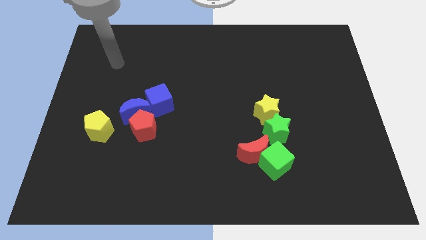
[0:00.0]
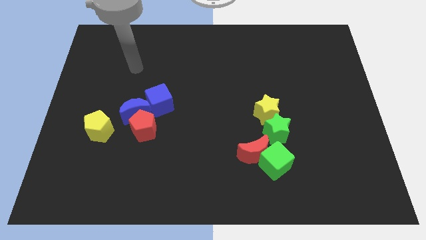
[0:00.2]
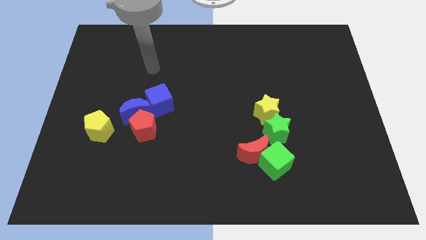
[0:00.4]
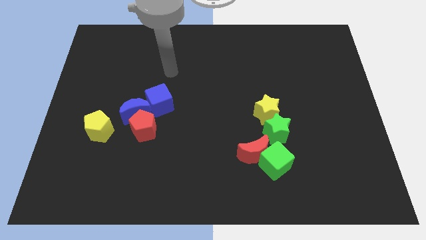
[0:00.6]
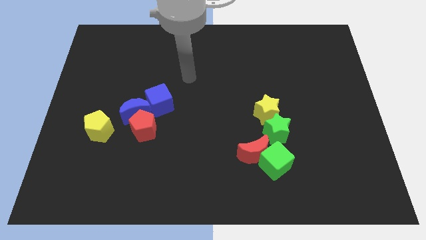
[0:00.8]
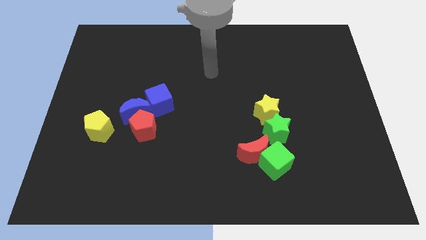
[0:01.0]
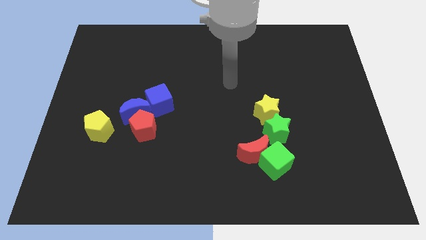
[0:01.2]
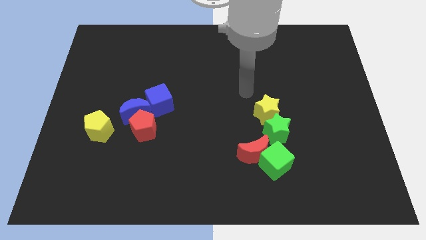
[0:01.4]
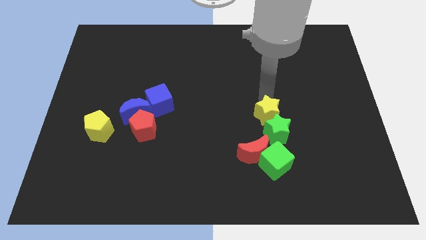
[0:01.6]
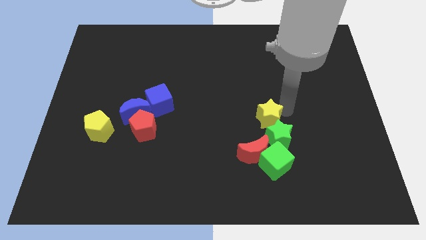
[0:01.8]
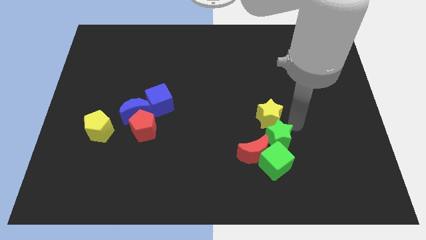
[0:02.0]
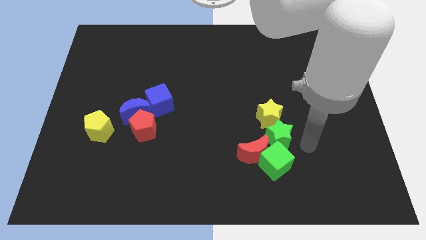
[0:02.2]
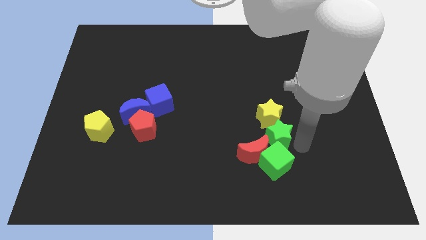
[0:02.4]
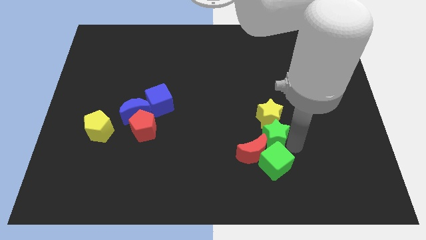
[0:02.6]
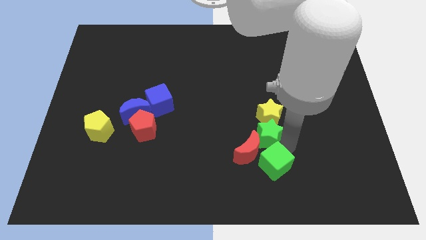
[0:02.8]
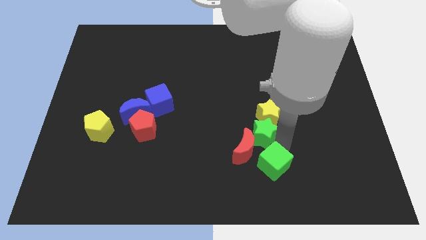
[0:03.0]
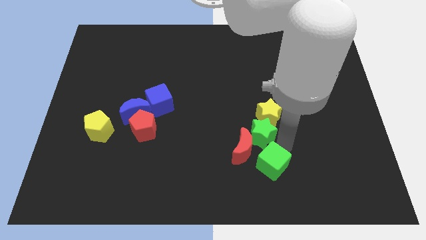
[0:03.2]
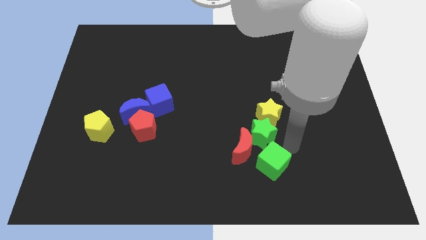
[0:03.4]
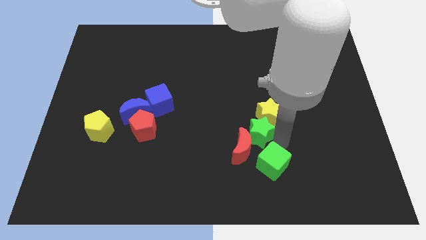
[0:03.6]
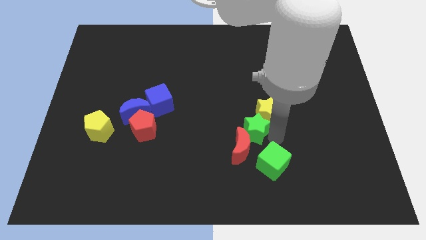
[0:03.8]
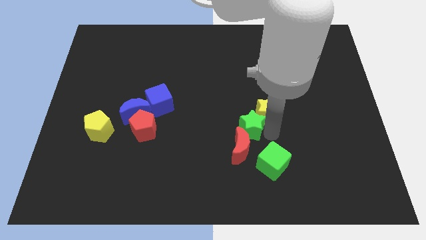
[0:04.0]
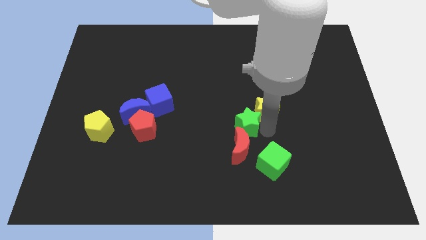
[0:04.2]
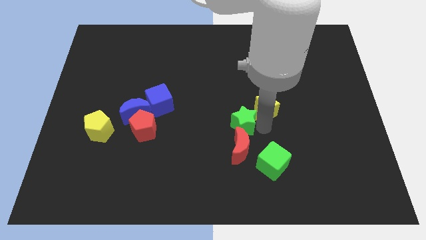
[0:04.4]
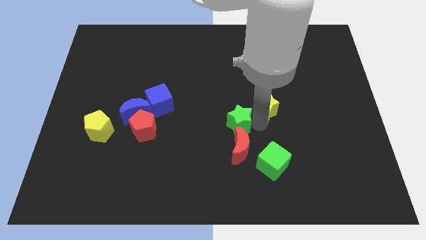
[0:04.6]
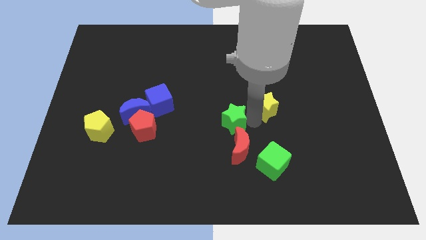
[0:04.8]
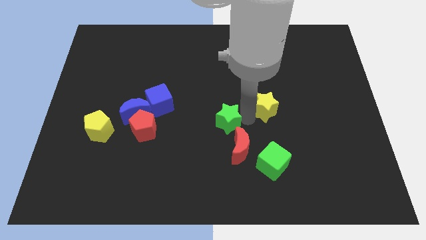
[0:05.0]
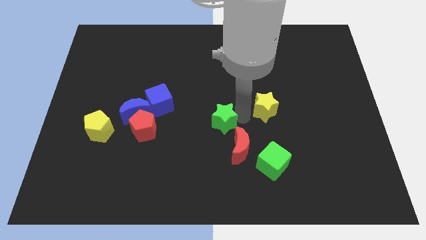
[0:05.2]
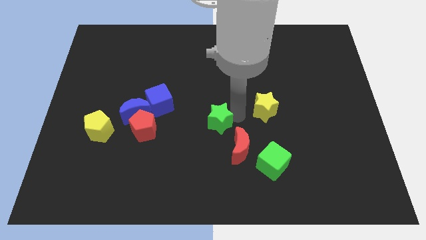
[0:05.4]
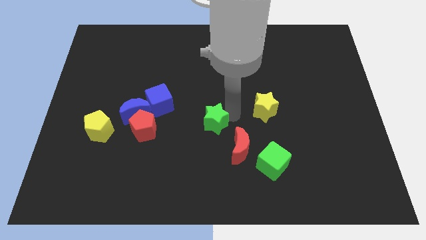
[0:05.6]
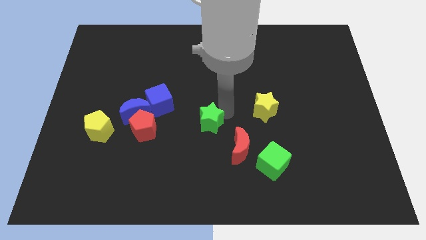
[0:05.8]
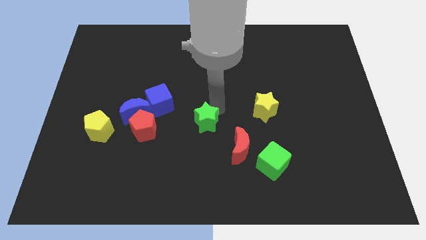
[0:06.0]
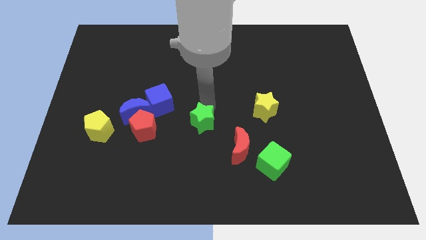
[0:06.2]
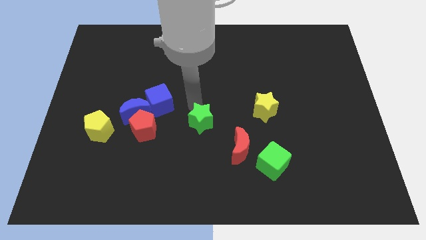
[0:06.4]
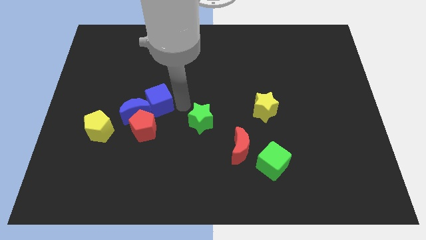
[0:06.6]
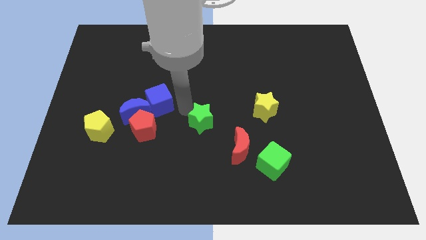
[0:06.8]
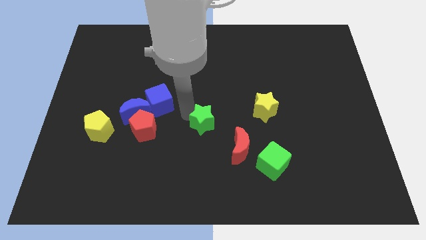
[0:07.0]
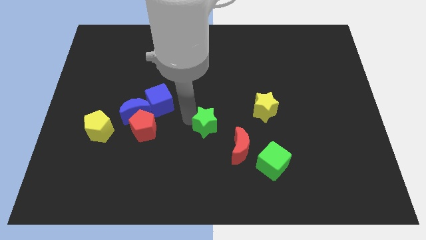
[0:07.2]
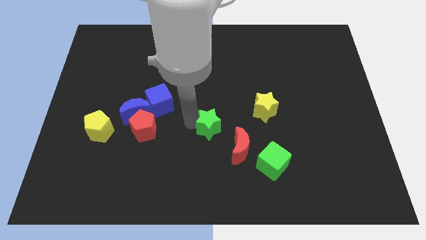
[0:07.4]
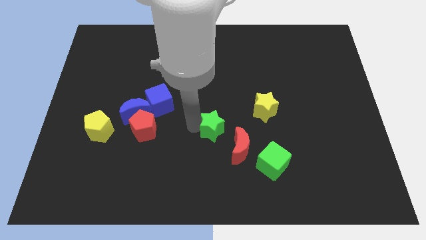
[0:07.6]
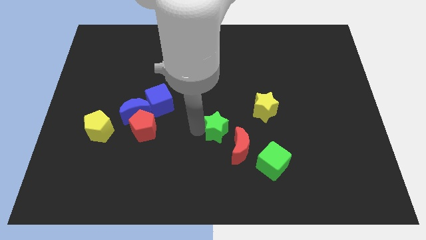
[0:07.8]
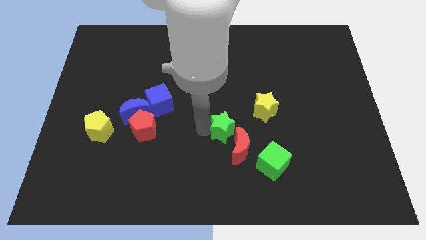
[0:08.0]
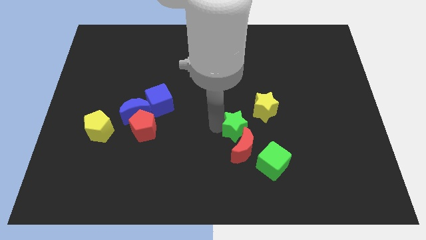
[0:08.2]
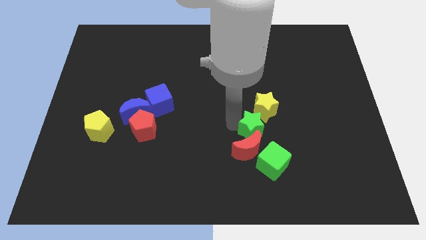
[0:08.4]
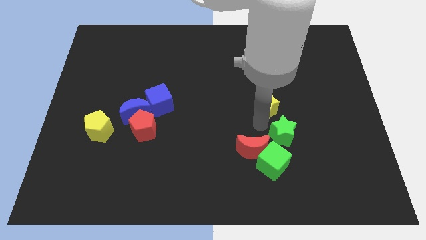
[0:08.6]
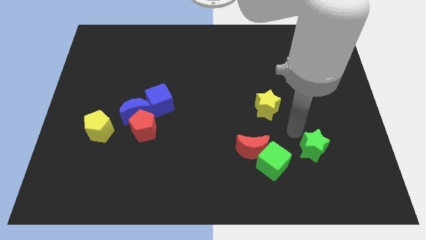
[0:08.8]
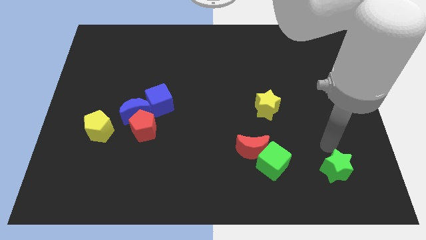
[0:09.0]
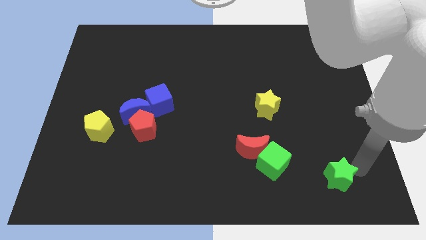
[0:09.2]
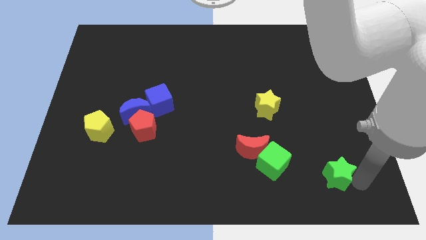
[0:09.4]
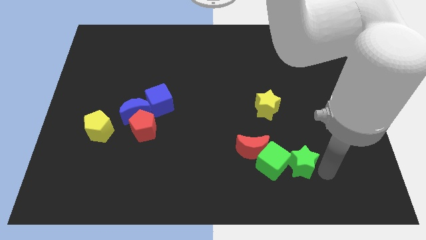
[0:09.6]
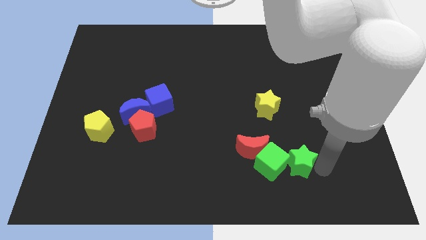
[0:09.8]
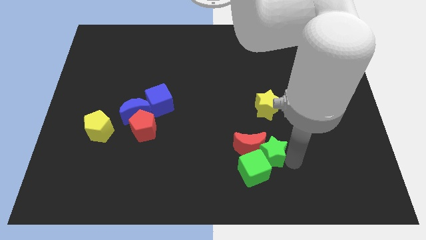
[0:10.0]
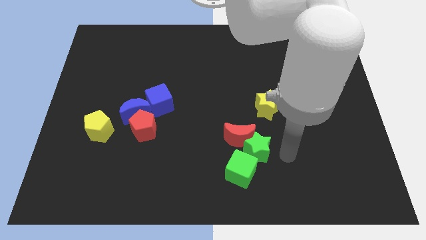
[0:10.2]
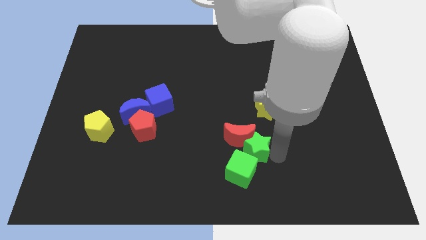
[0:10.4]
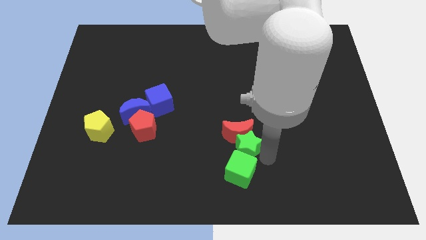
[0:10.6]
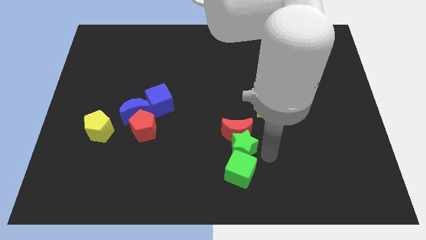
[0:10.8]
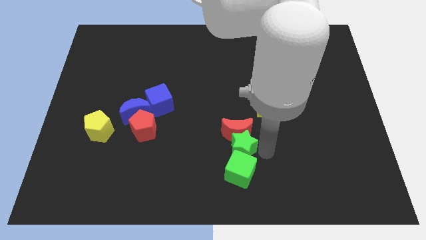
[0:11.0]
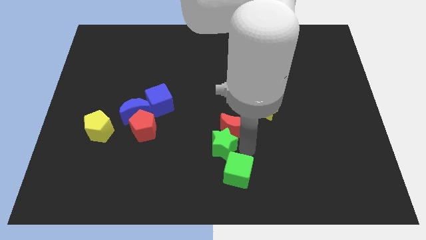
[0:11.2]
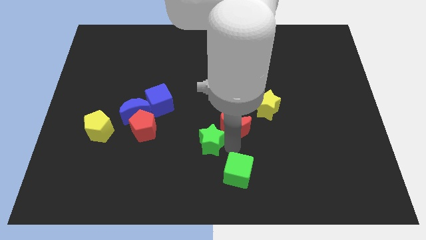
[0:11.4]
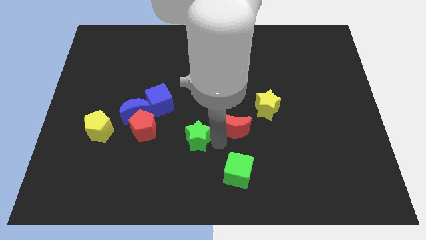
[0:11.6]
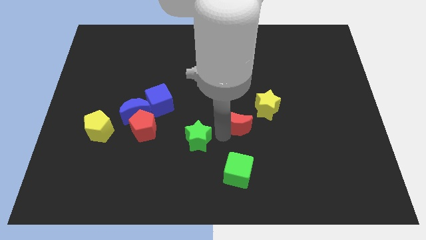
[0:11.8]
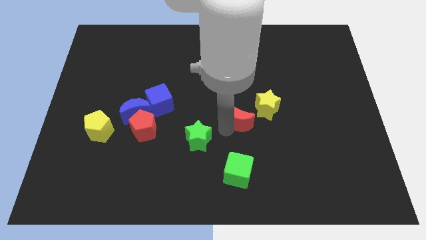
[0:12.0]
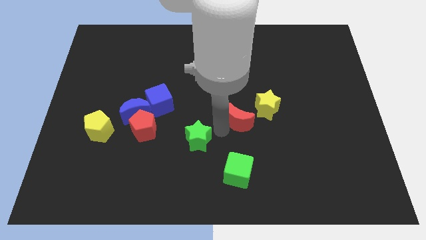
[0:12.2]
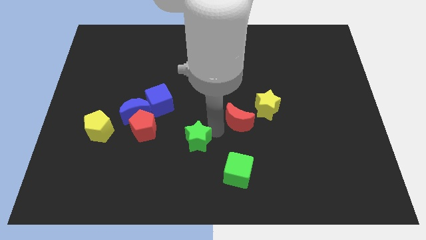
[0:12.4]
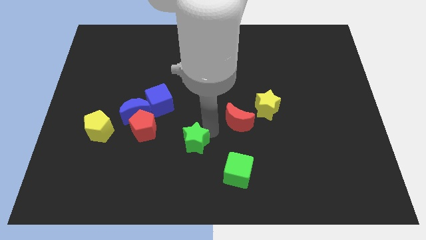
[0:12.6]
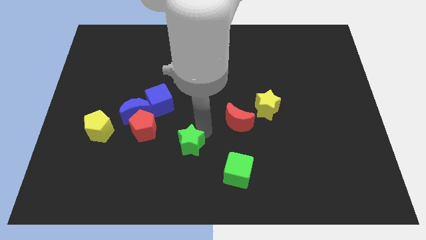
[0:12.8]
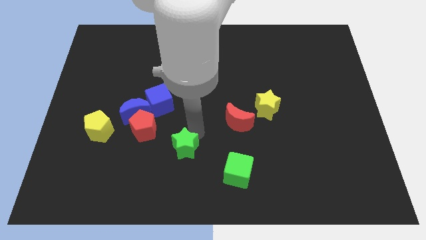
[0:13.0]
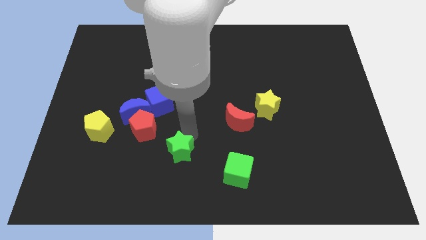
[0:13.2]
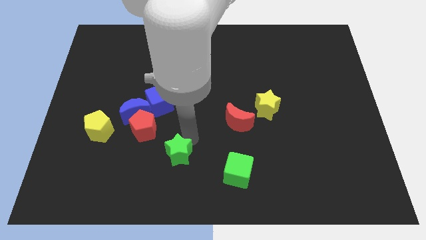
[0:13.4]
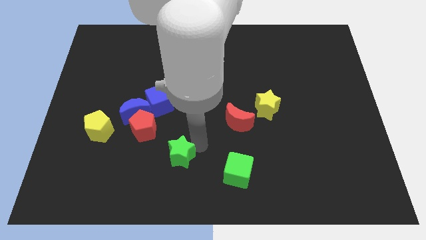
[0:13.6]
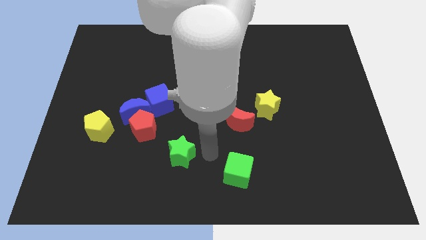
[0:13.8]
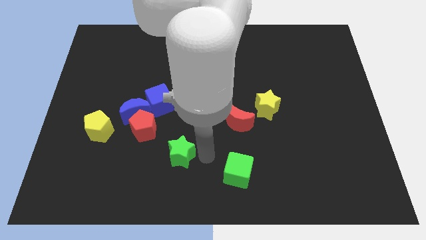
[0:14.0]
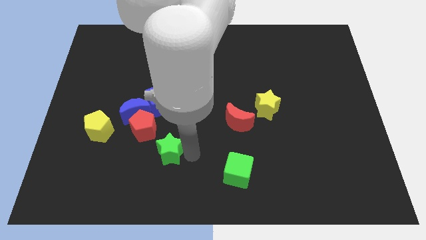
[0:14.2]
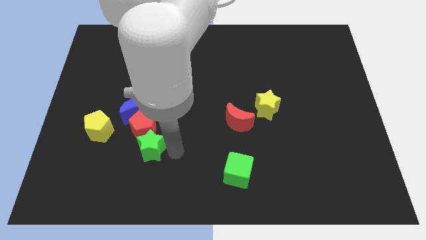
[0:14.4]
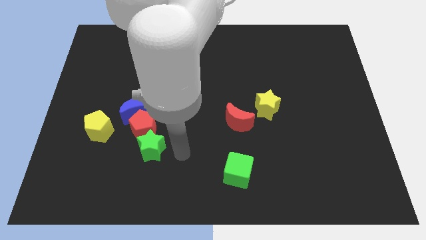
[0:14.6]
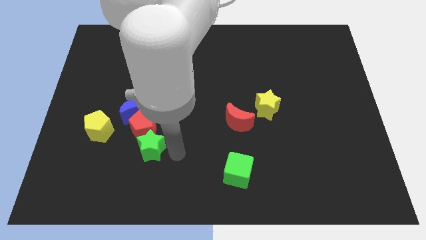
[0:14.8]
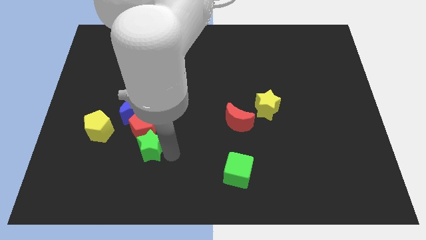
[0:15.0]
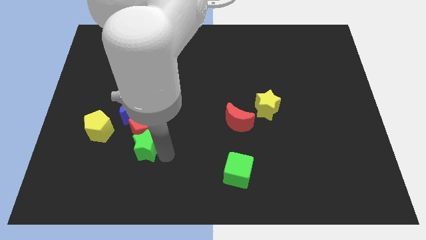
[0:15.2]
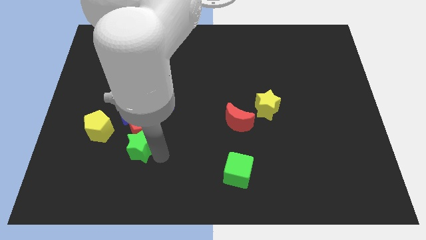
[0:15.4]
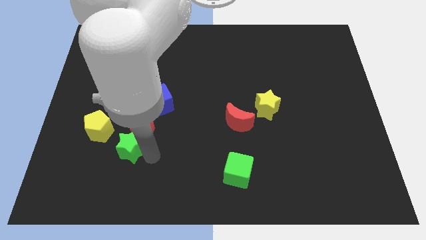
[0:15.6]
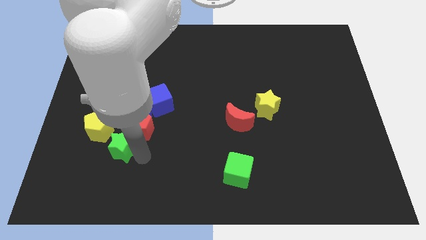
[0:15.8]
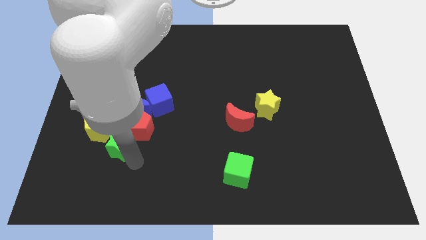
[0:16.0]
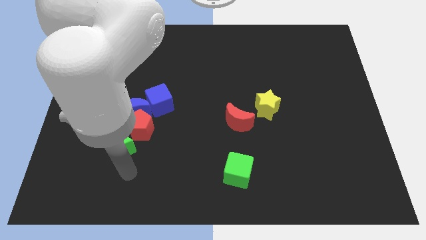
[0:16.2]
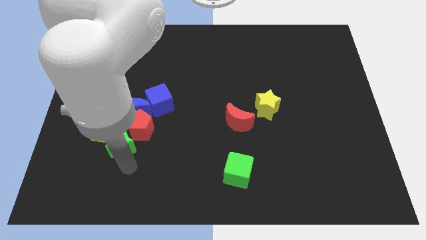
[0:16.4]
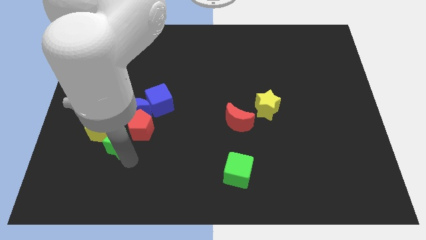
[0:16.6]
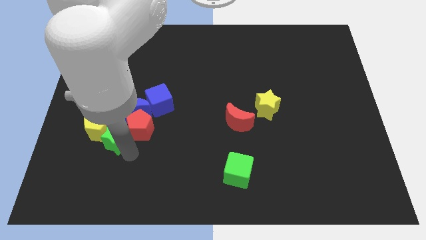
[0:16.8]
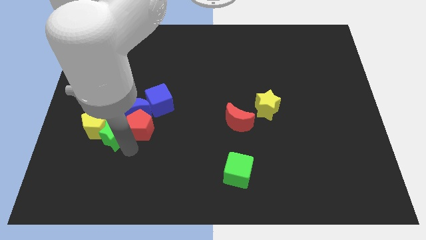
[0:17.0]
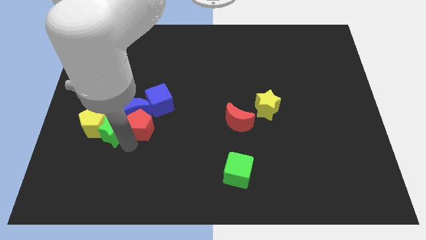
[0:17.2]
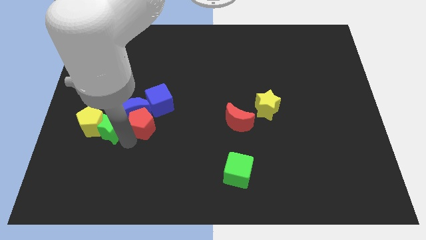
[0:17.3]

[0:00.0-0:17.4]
move the green star to the left side of the blue moon
